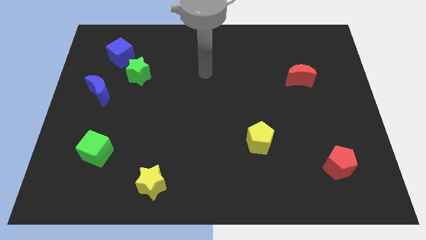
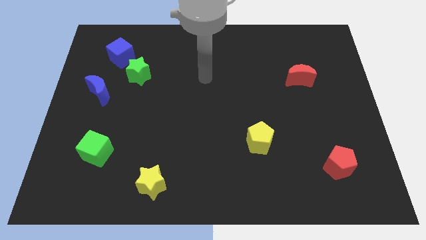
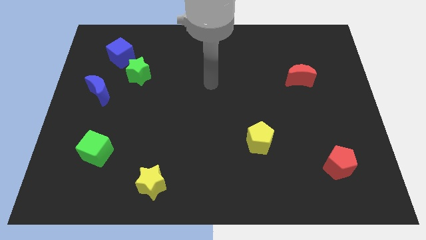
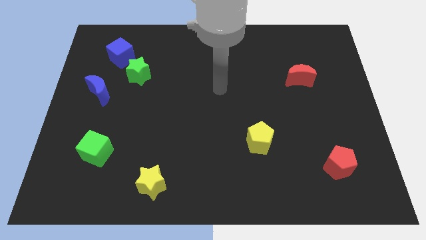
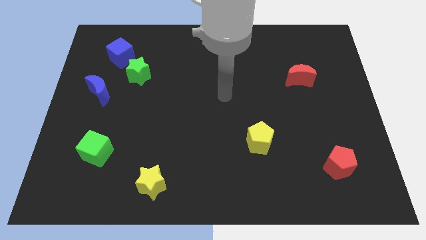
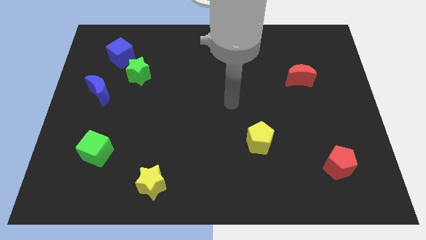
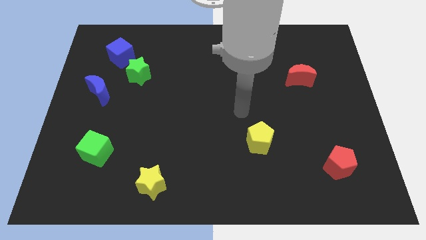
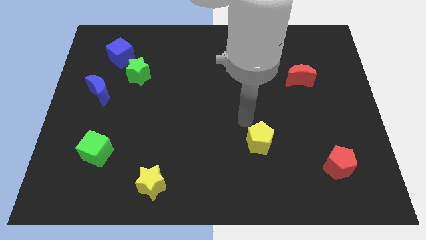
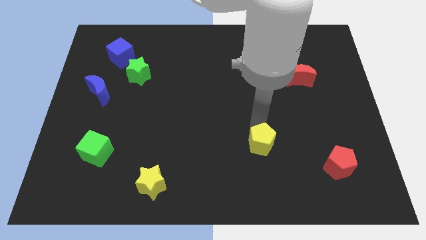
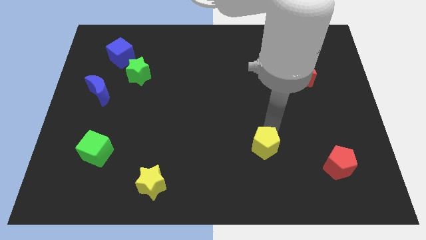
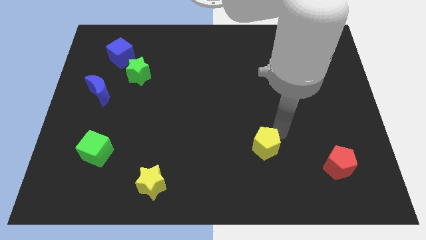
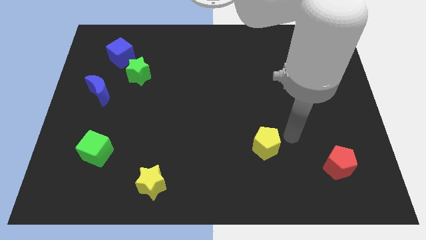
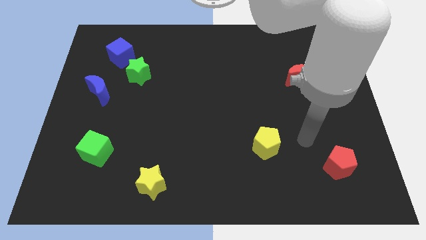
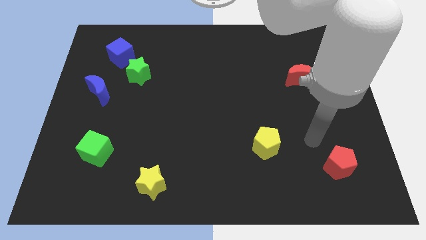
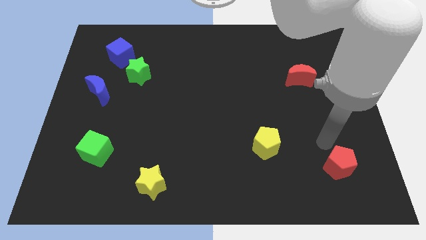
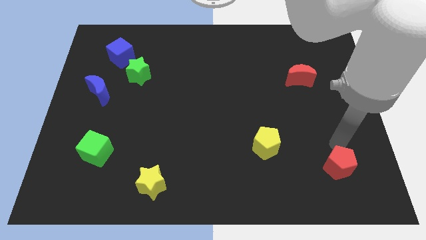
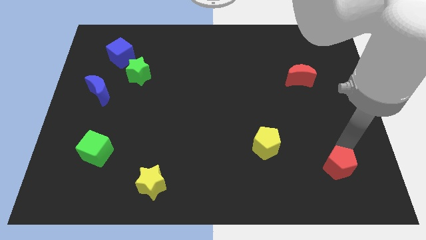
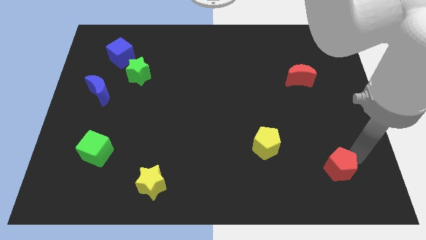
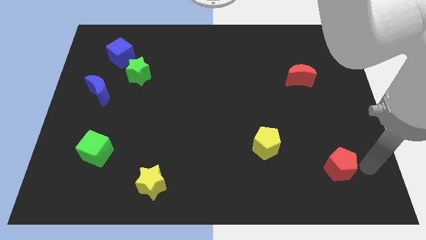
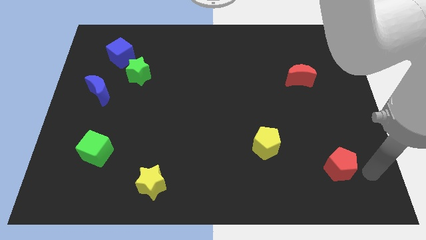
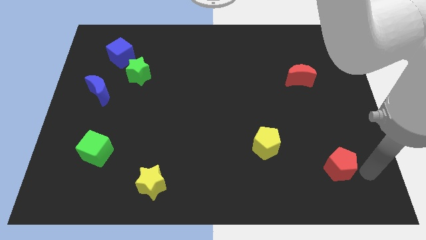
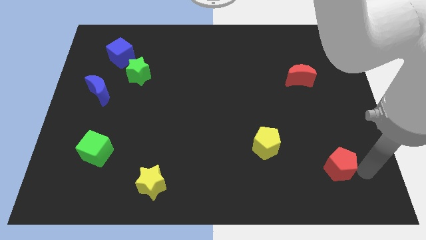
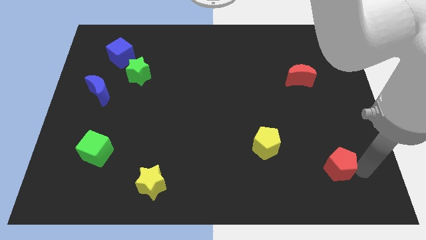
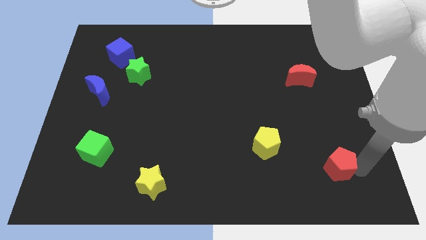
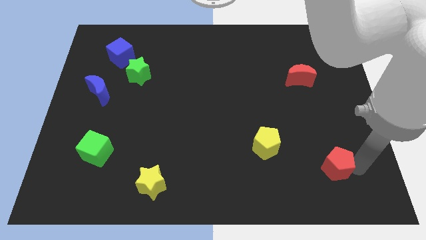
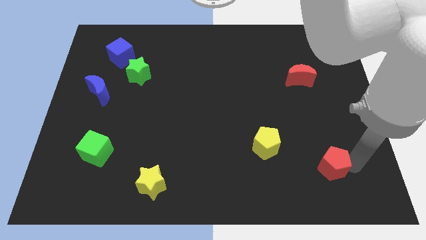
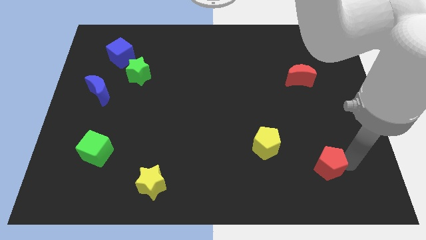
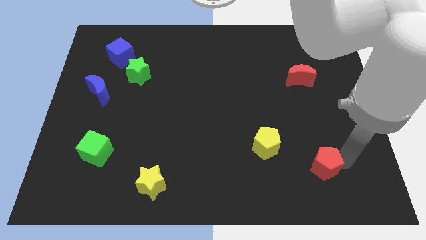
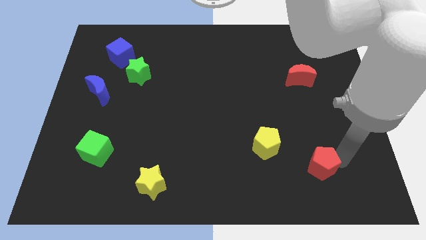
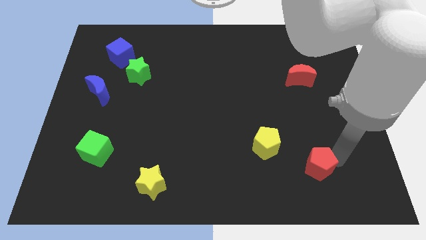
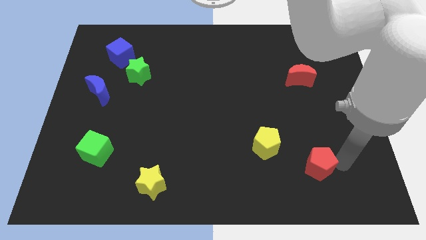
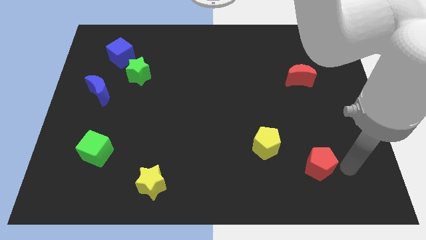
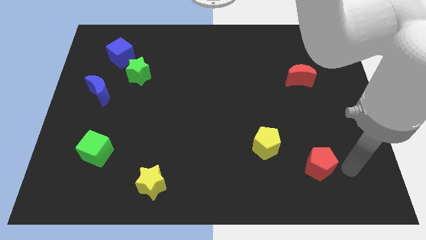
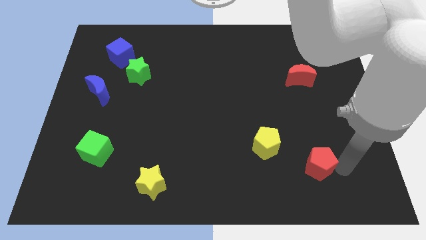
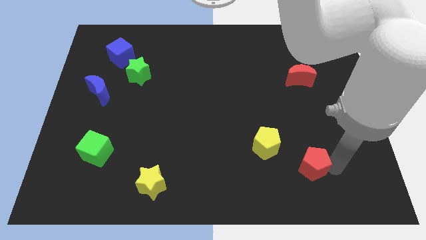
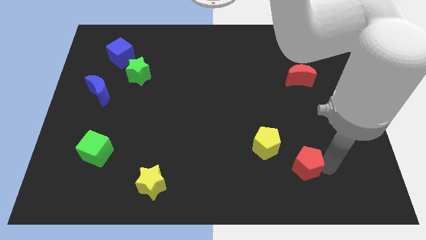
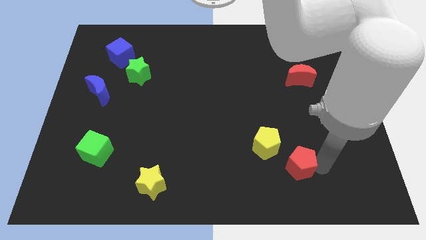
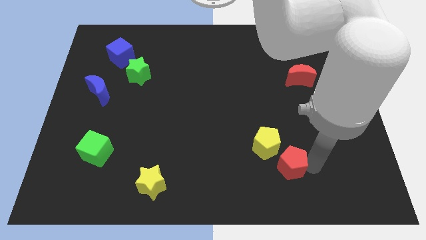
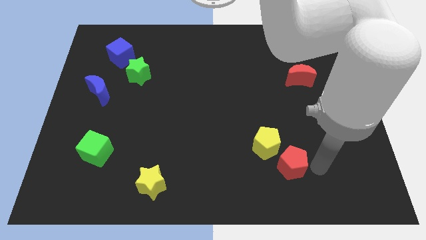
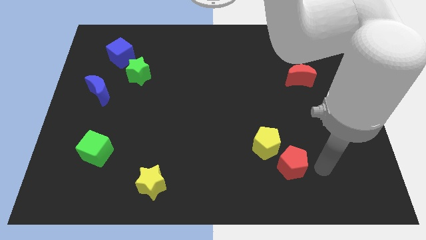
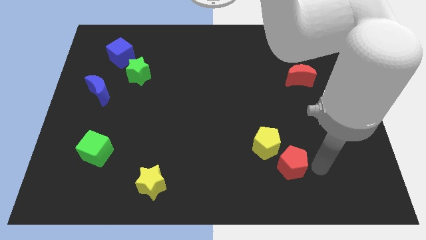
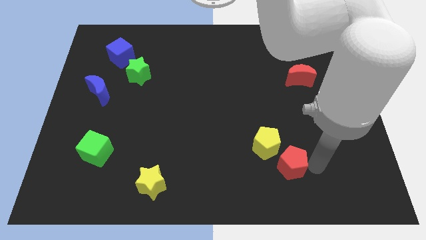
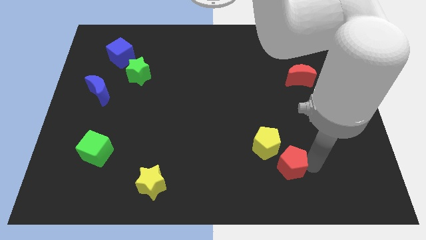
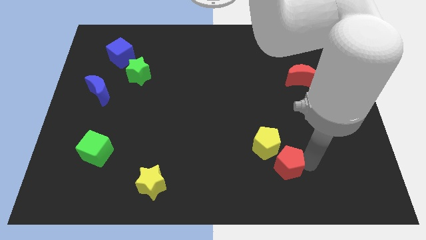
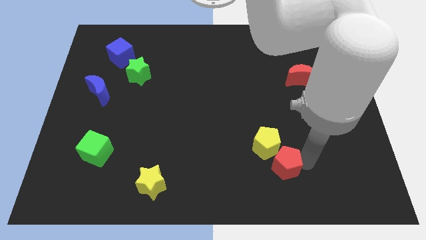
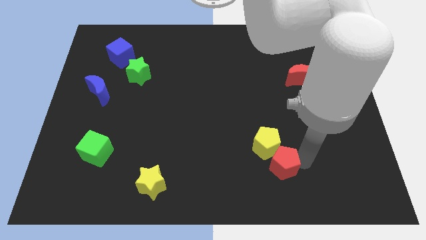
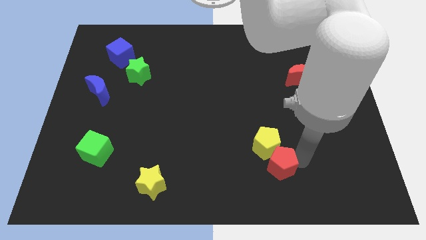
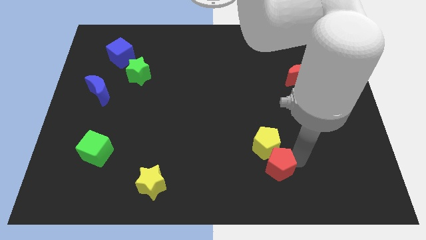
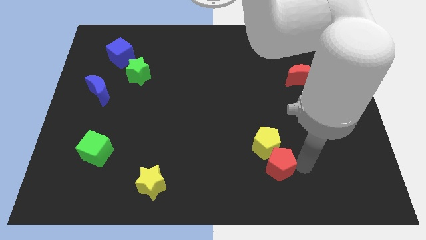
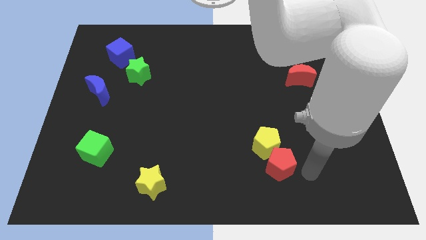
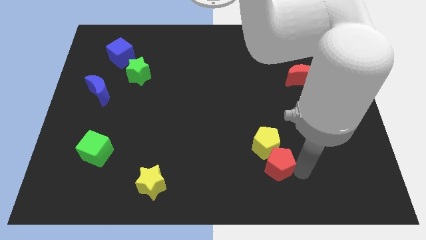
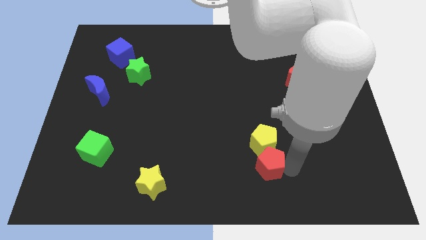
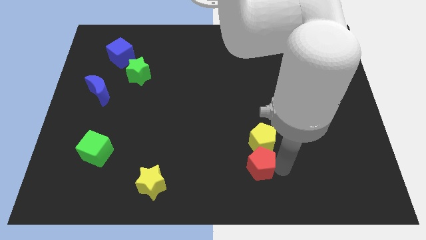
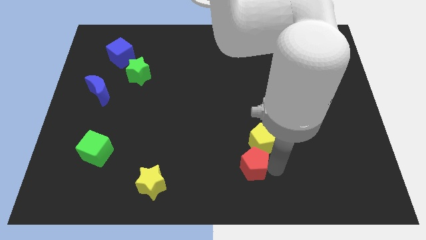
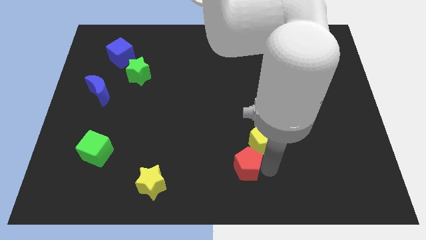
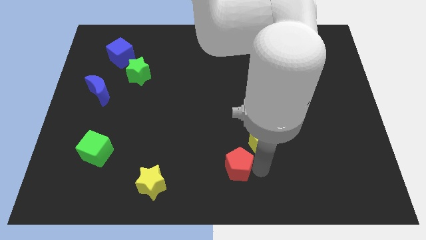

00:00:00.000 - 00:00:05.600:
slide the red pentagon left

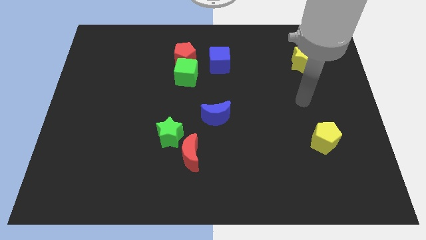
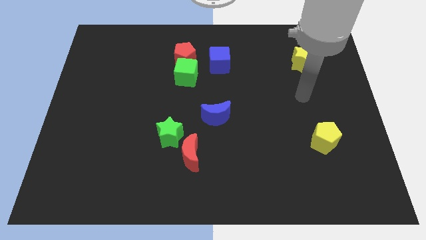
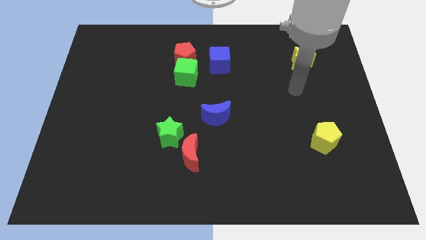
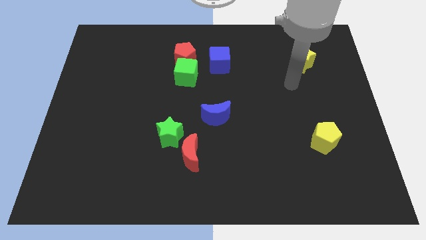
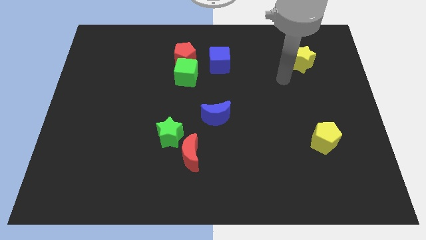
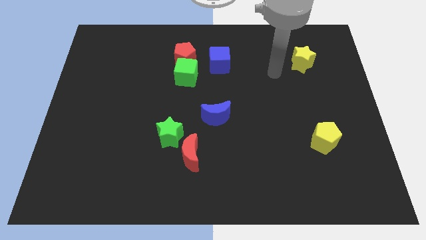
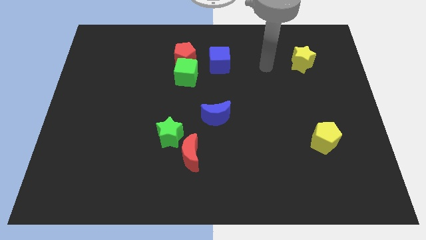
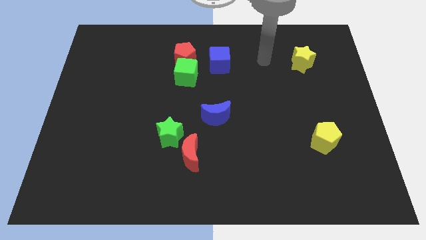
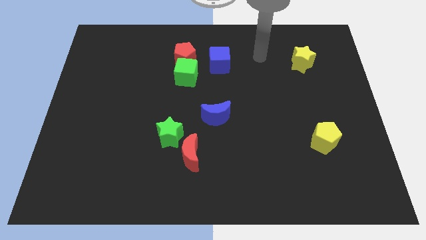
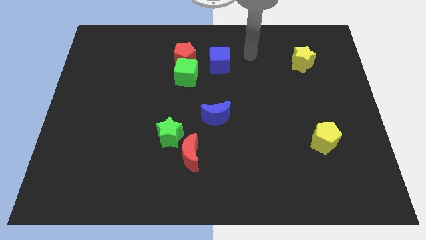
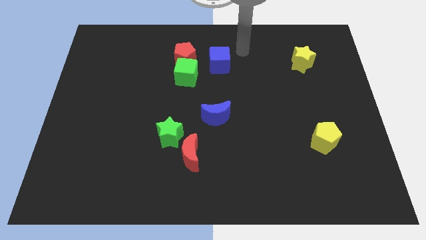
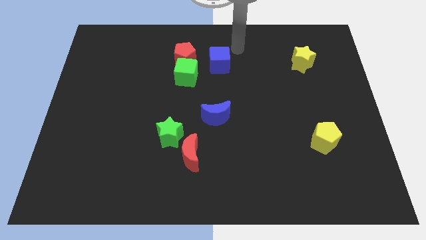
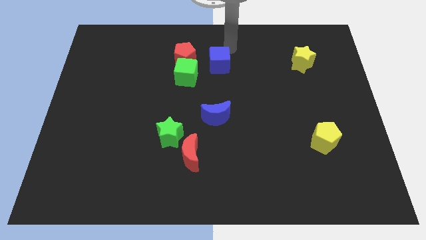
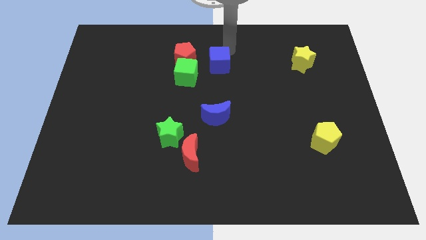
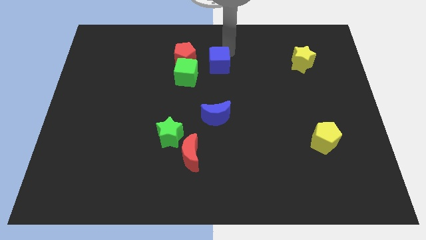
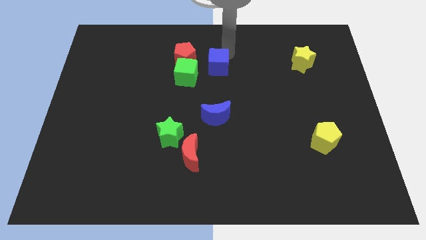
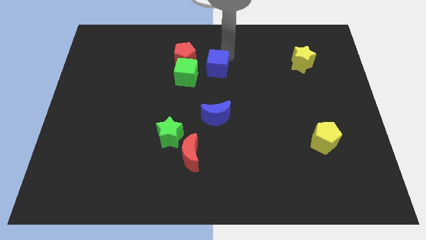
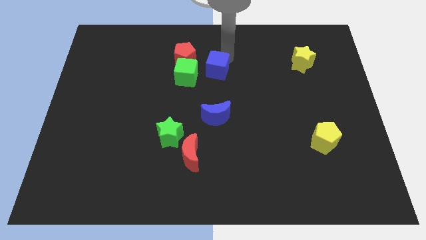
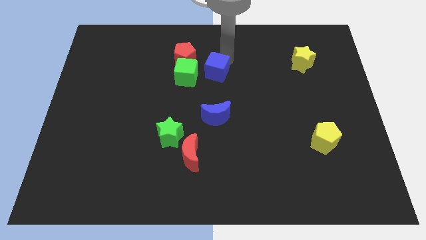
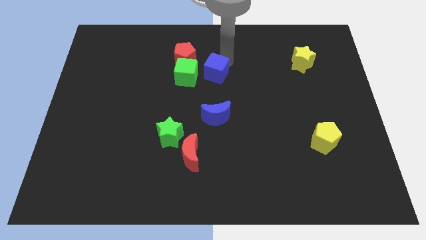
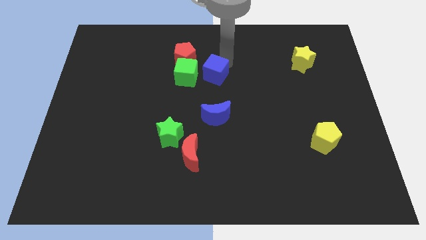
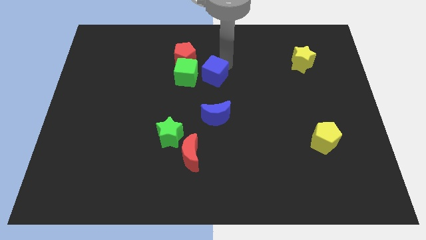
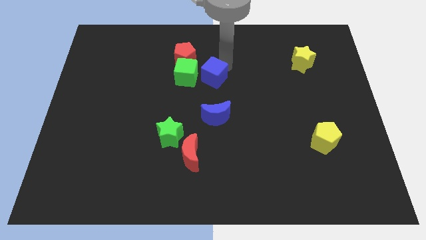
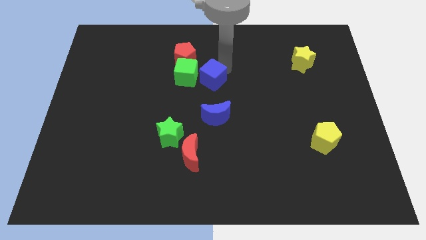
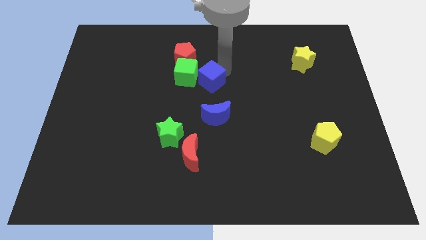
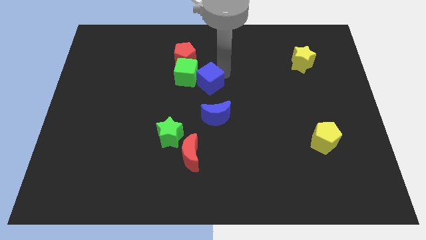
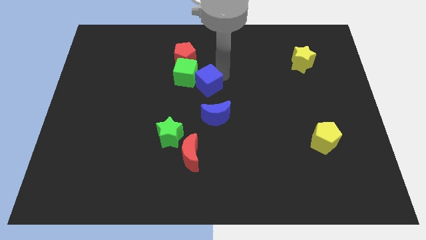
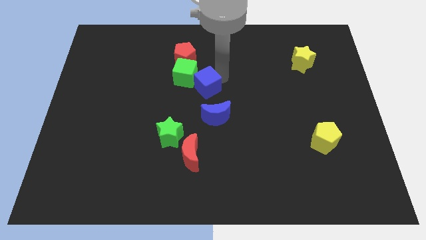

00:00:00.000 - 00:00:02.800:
slightly push the blue cube downwards and left diagonally
